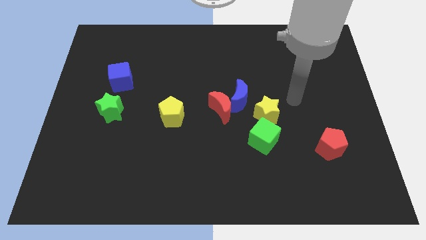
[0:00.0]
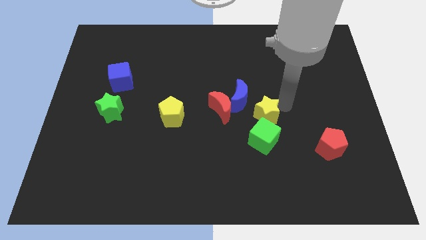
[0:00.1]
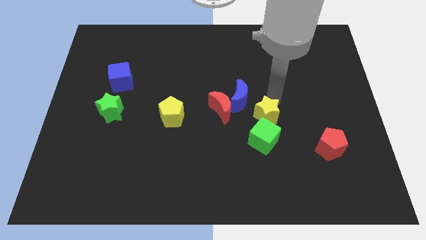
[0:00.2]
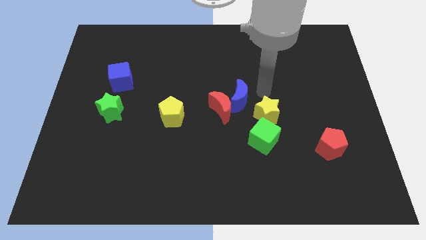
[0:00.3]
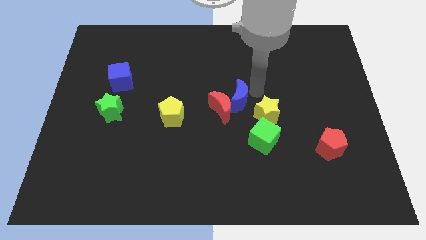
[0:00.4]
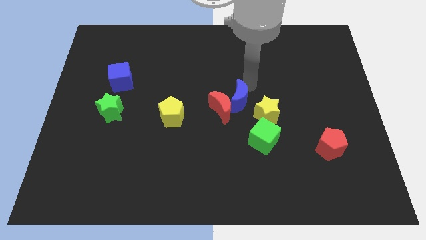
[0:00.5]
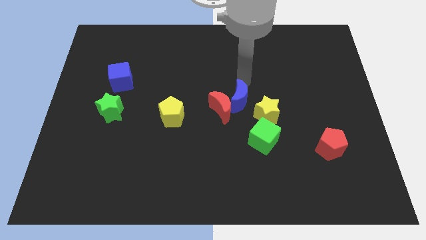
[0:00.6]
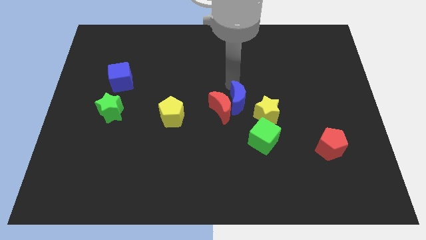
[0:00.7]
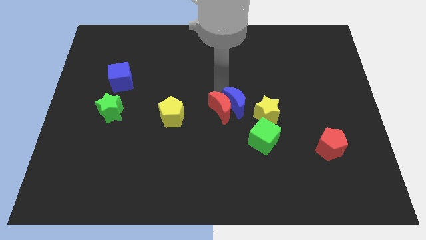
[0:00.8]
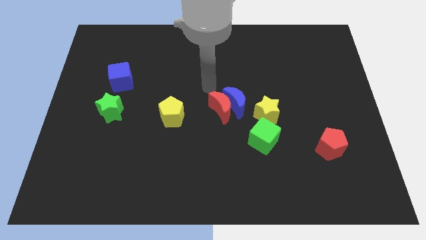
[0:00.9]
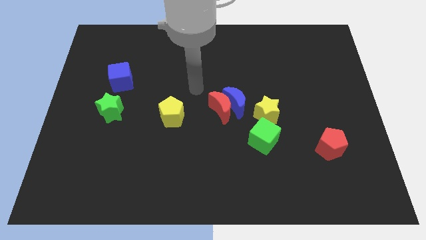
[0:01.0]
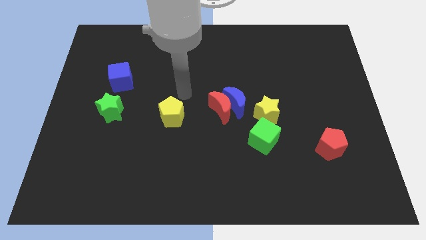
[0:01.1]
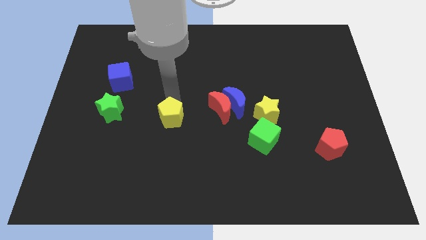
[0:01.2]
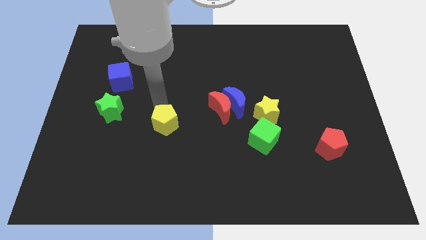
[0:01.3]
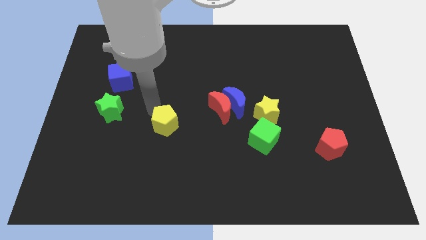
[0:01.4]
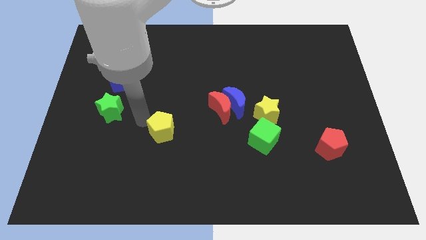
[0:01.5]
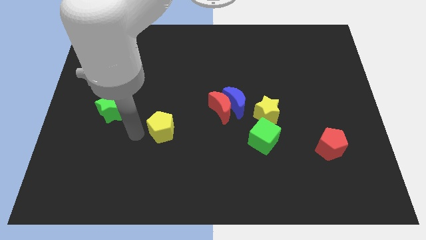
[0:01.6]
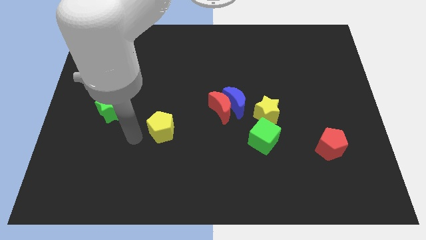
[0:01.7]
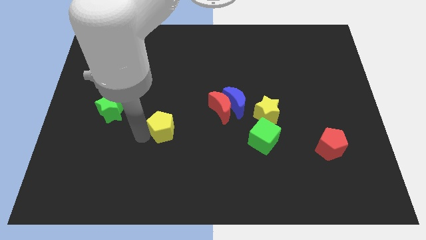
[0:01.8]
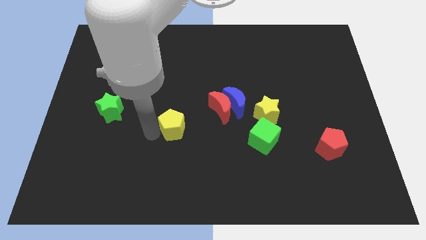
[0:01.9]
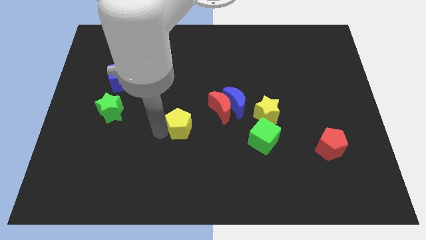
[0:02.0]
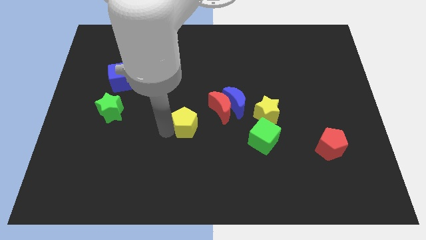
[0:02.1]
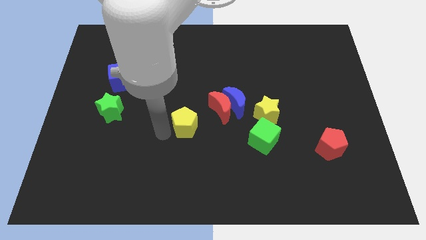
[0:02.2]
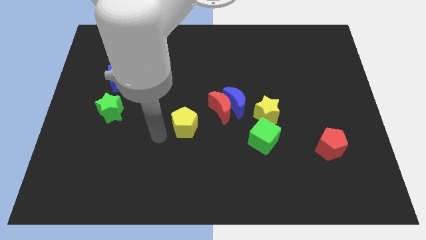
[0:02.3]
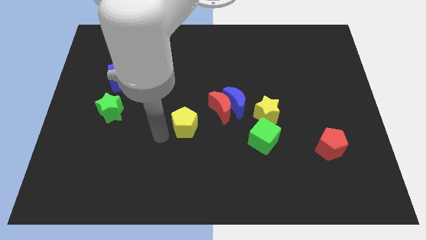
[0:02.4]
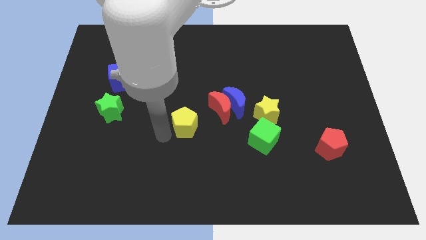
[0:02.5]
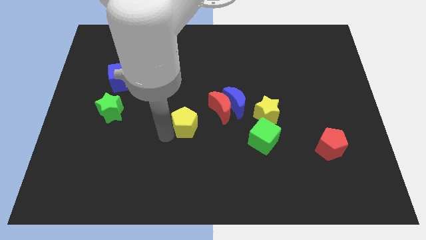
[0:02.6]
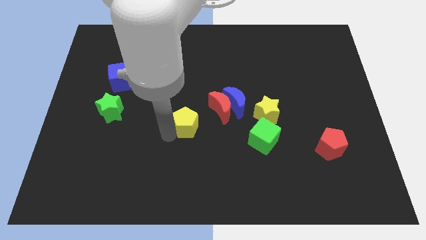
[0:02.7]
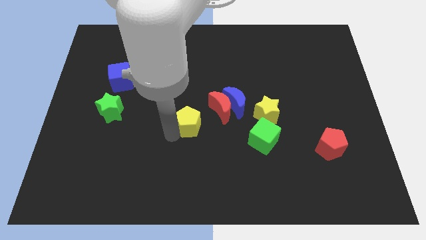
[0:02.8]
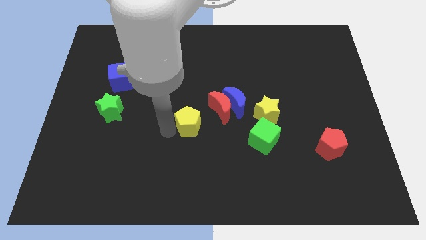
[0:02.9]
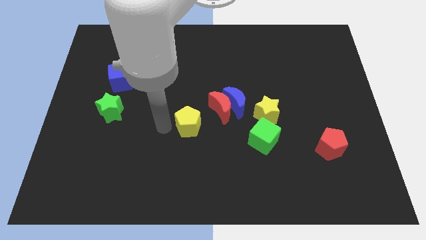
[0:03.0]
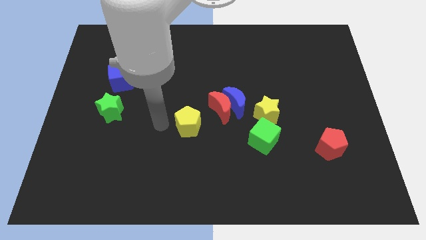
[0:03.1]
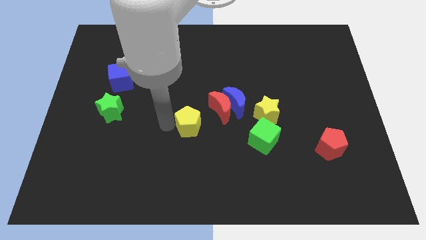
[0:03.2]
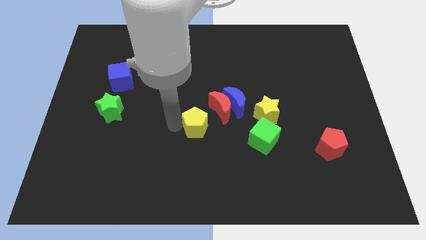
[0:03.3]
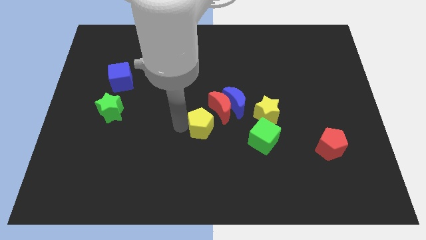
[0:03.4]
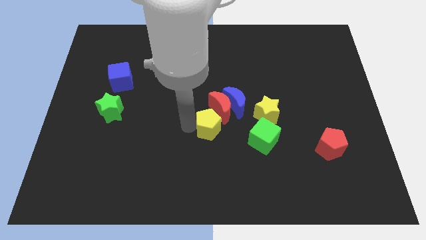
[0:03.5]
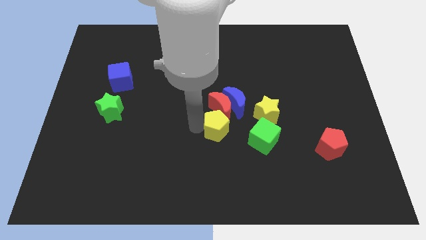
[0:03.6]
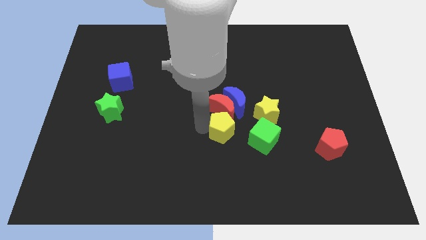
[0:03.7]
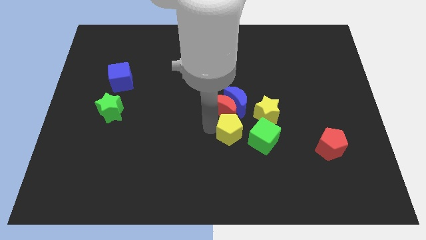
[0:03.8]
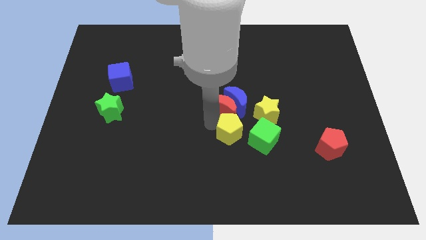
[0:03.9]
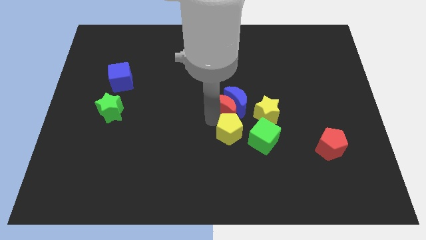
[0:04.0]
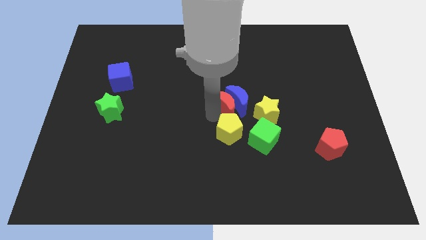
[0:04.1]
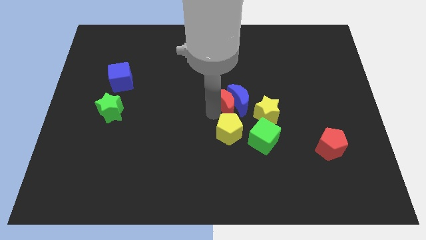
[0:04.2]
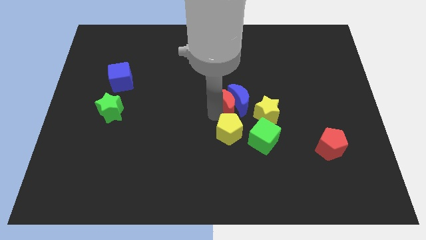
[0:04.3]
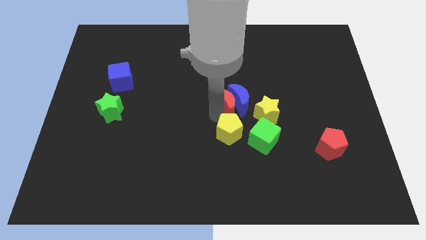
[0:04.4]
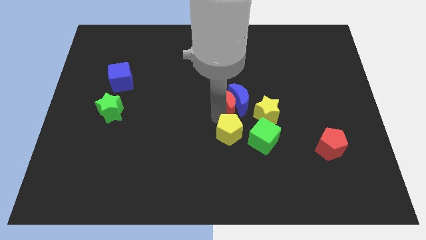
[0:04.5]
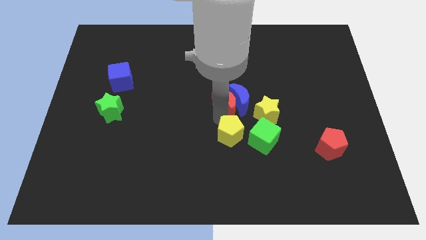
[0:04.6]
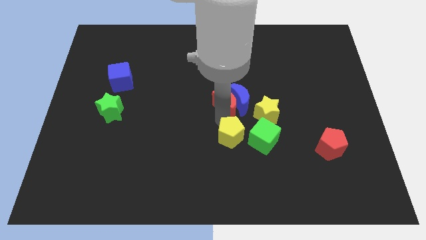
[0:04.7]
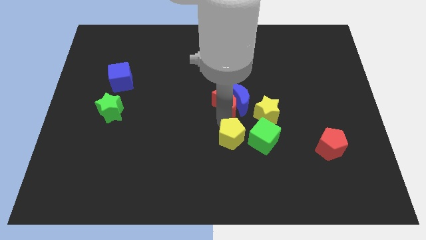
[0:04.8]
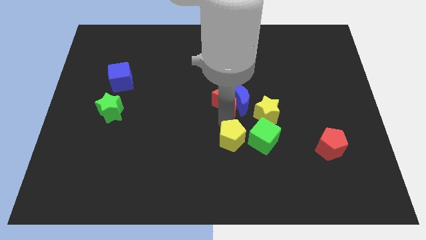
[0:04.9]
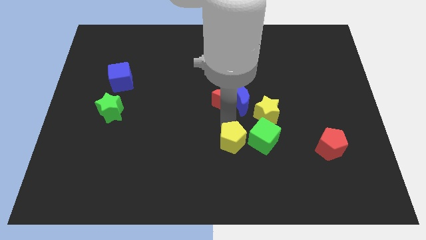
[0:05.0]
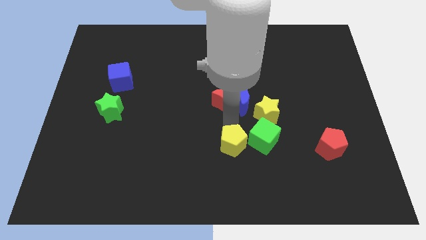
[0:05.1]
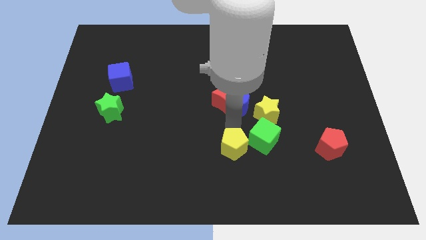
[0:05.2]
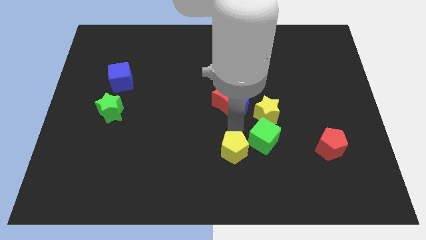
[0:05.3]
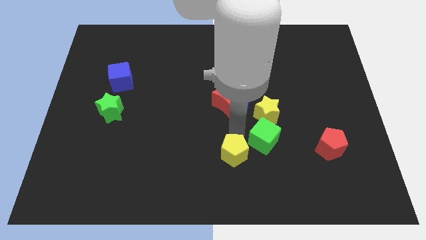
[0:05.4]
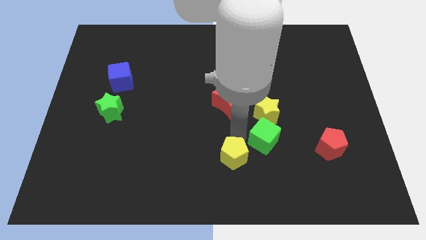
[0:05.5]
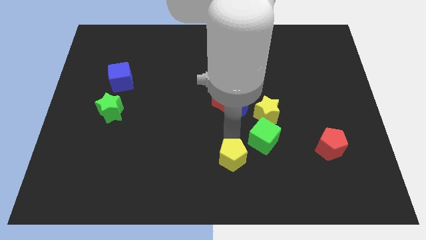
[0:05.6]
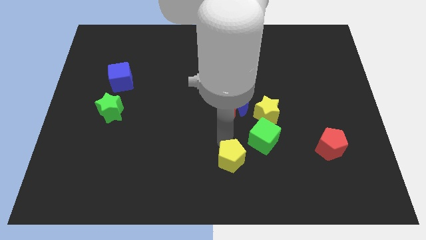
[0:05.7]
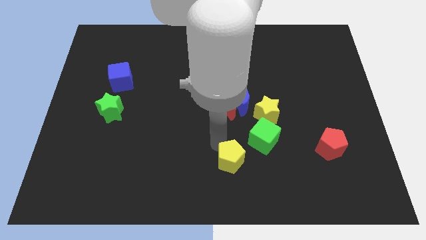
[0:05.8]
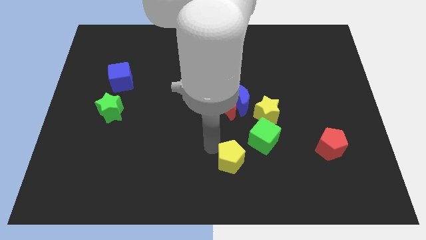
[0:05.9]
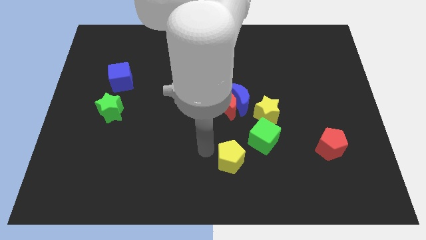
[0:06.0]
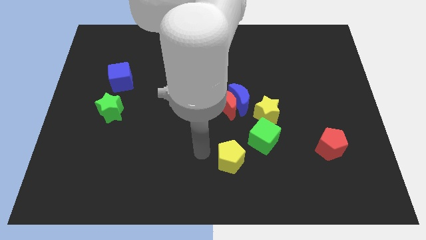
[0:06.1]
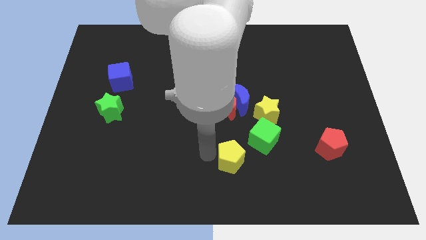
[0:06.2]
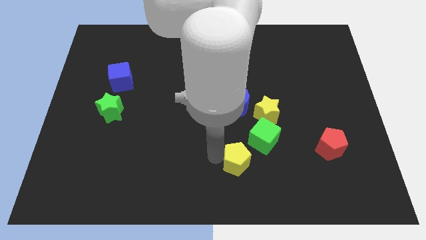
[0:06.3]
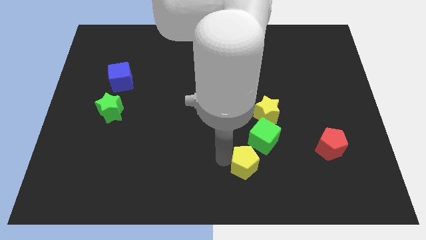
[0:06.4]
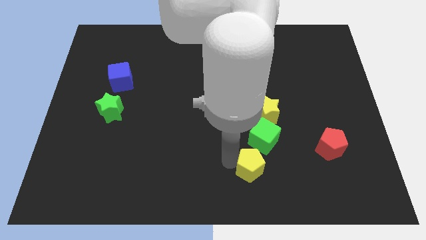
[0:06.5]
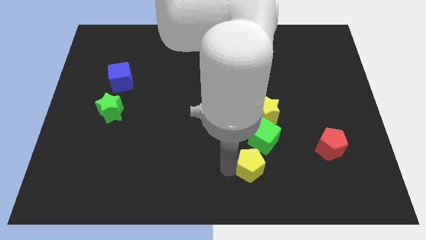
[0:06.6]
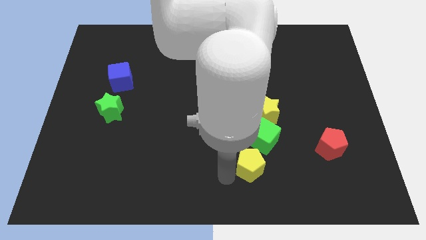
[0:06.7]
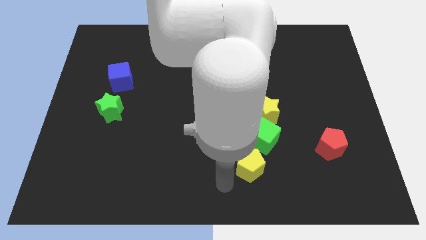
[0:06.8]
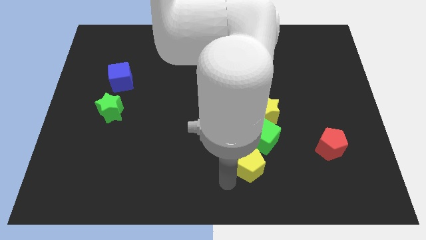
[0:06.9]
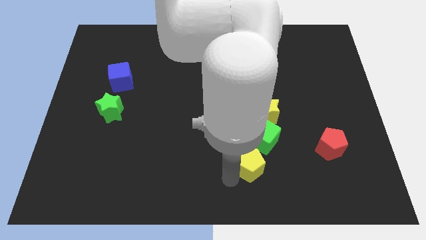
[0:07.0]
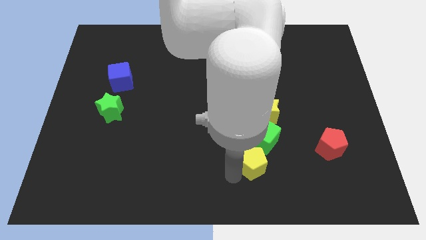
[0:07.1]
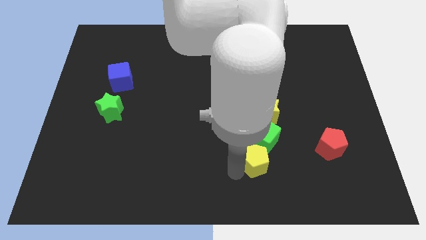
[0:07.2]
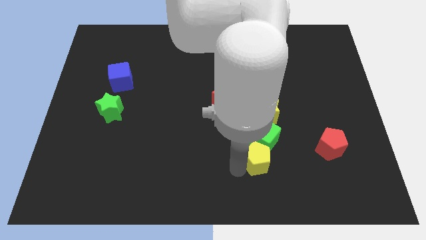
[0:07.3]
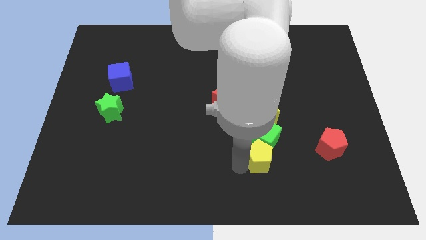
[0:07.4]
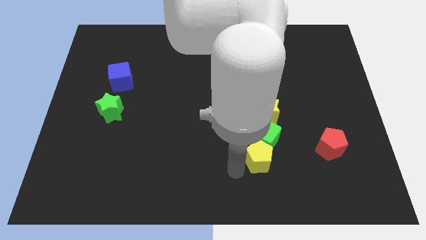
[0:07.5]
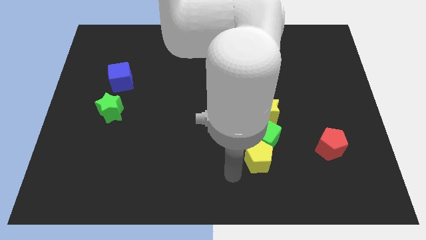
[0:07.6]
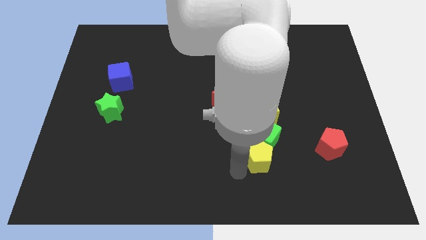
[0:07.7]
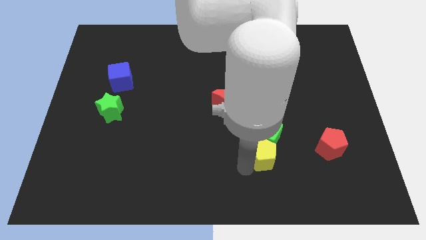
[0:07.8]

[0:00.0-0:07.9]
slide the yellow pentagon left of the red pentagon
